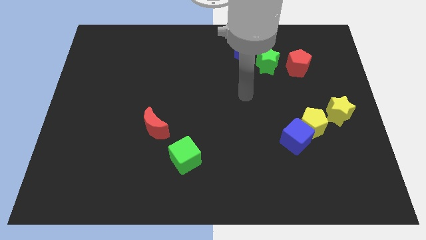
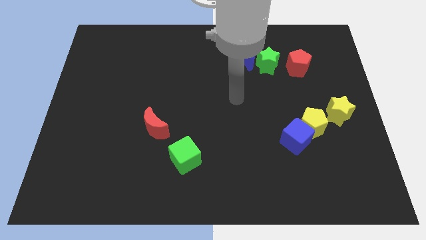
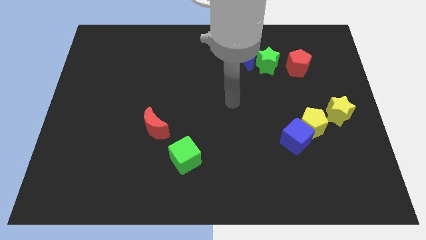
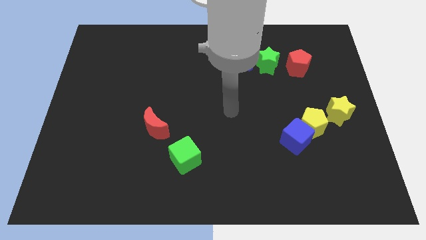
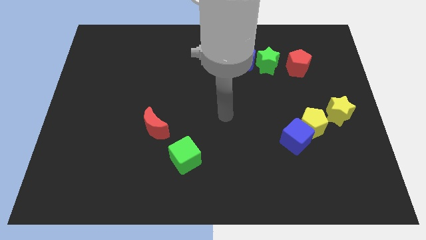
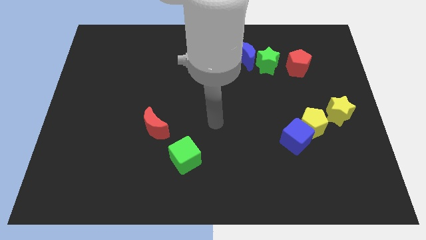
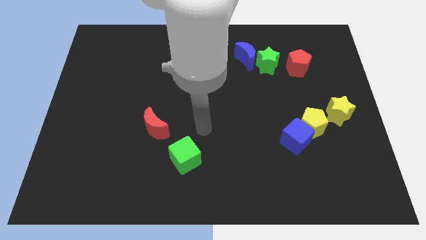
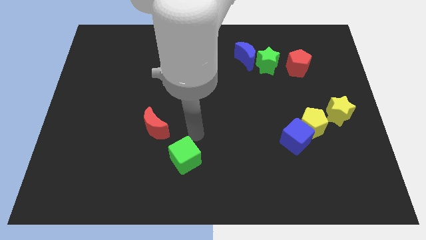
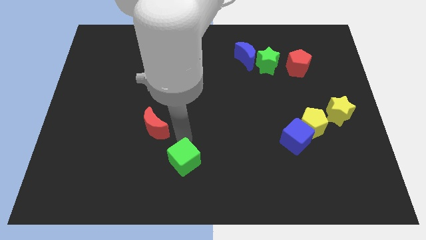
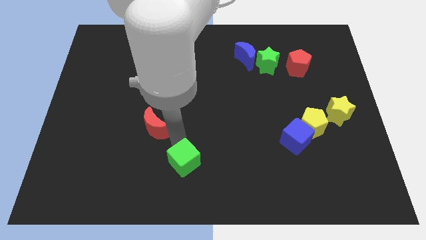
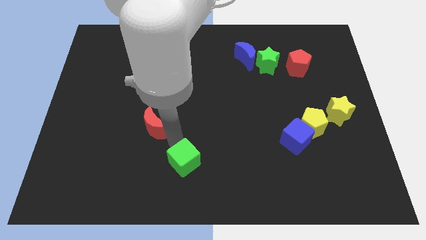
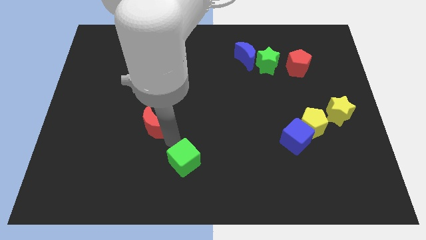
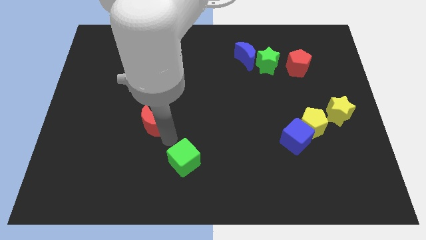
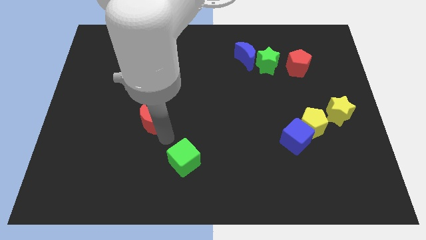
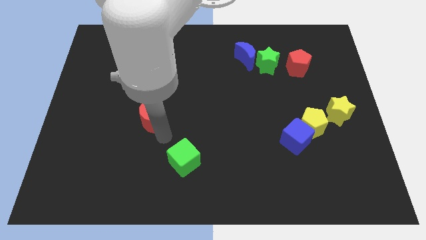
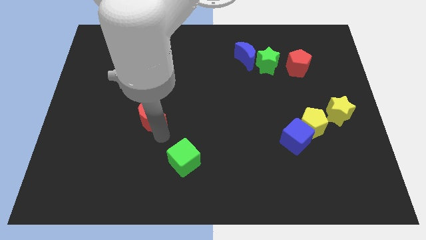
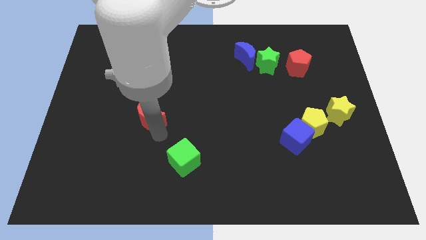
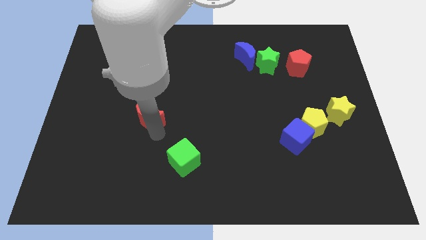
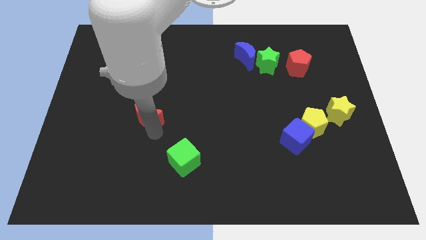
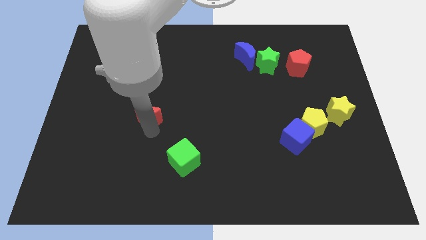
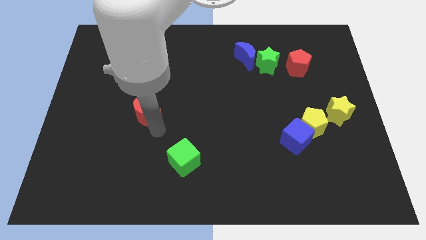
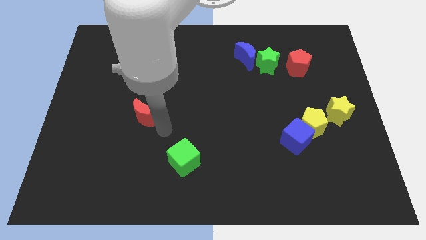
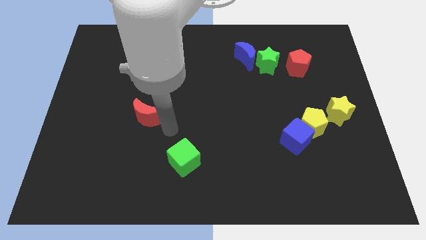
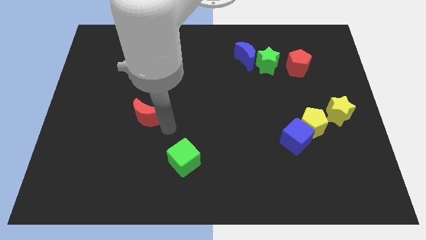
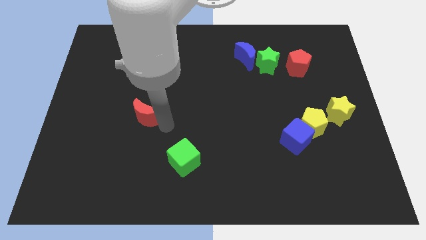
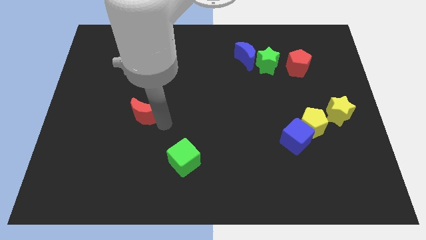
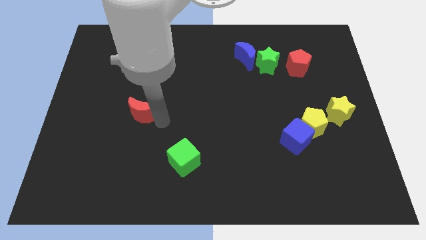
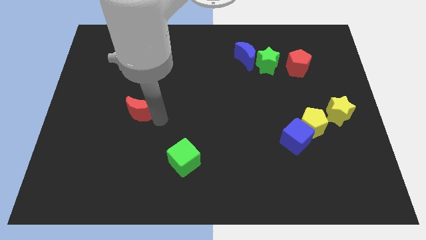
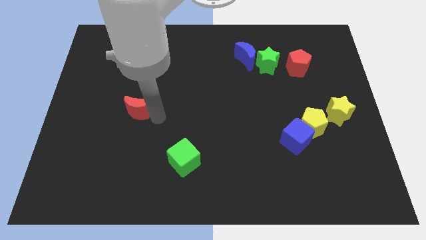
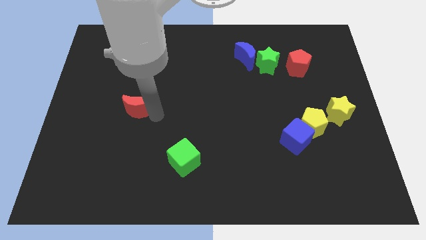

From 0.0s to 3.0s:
slightly push the red moon upwards and then left

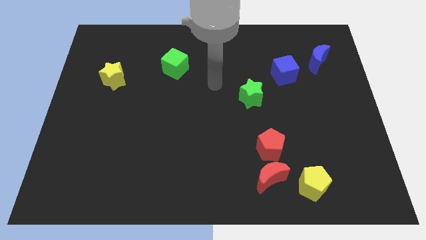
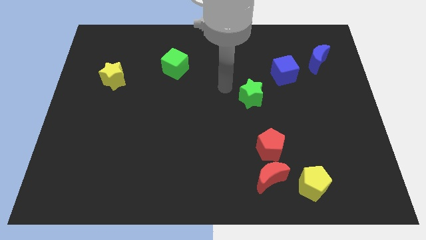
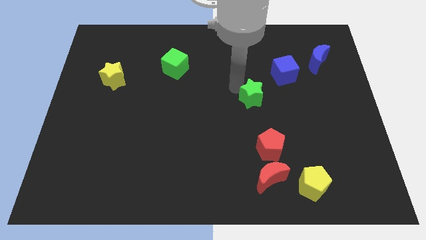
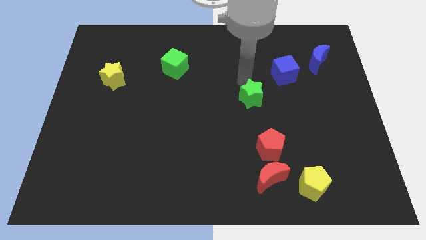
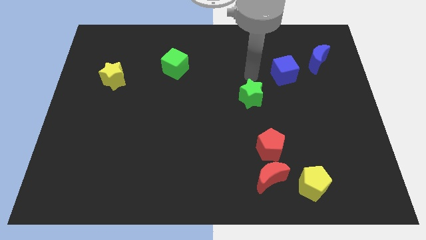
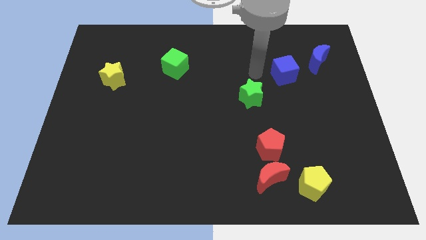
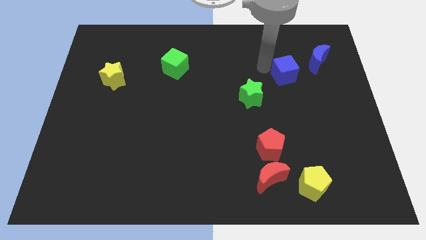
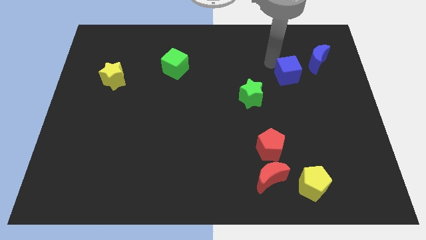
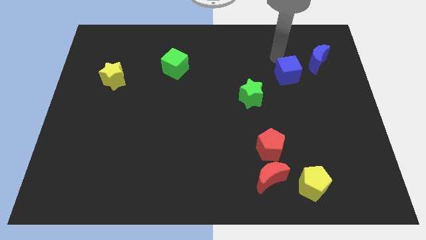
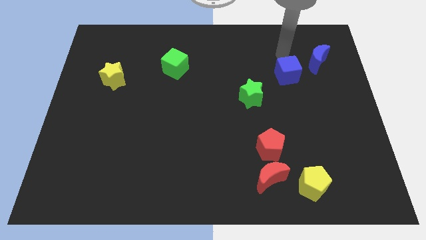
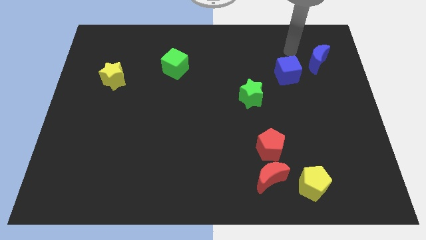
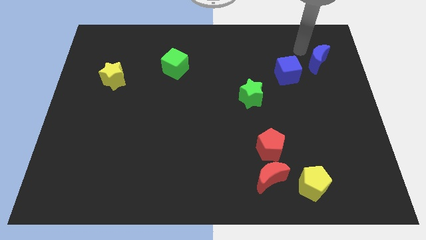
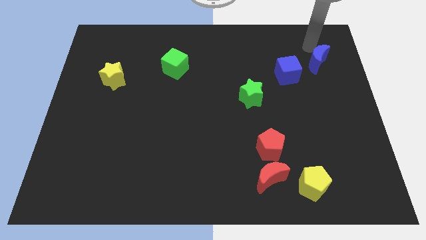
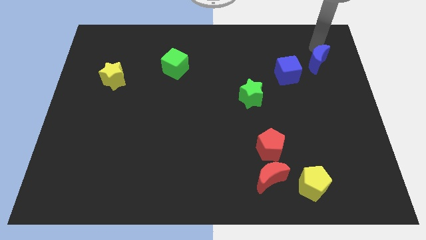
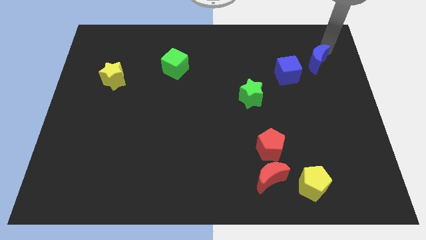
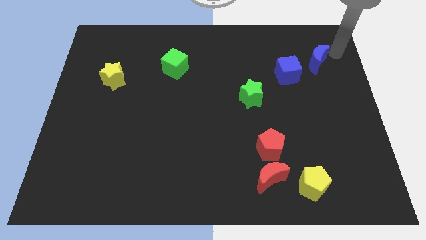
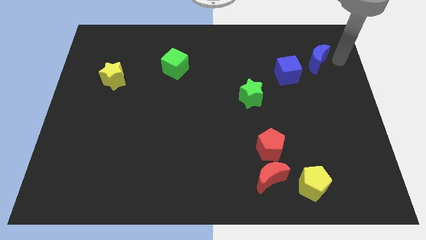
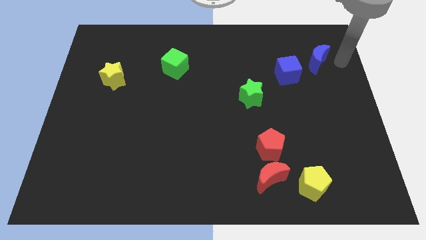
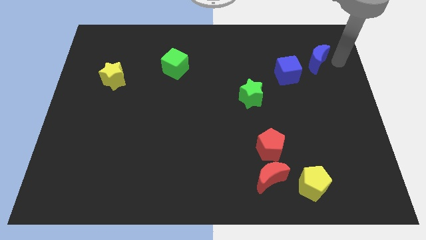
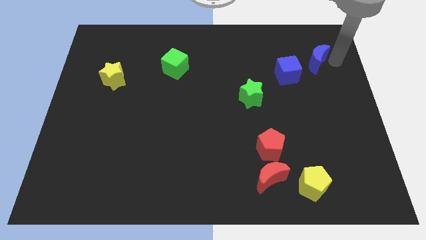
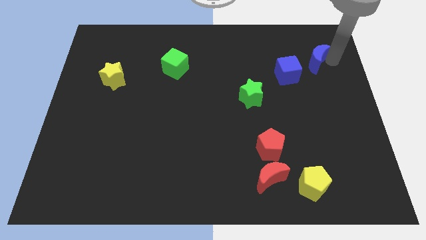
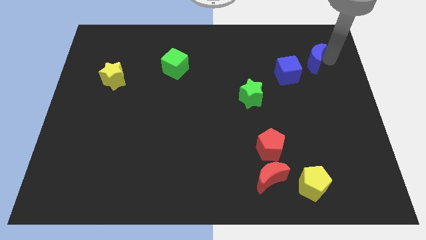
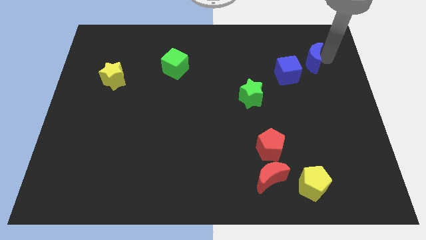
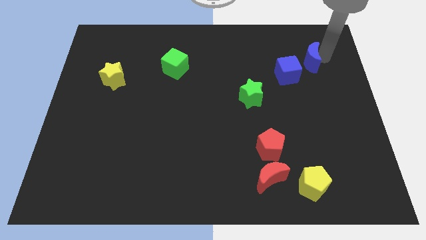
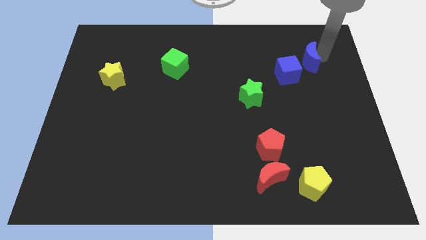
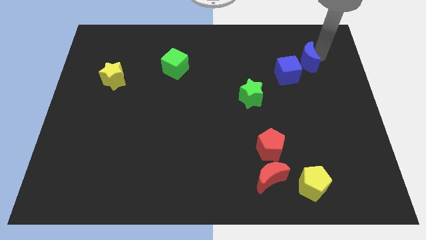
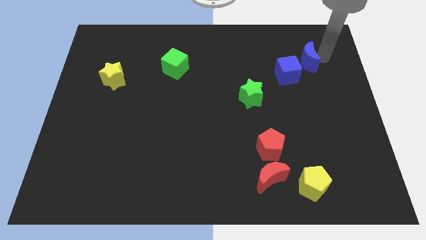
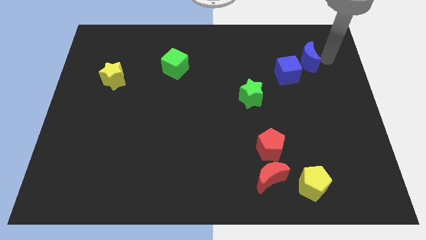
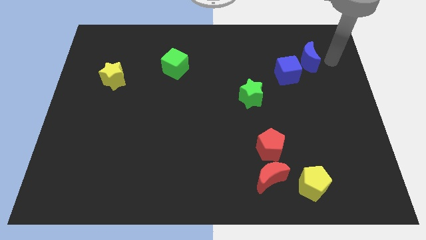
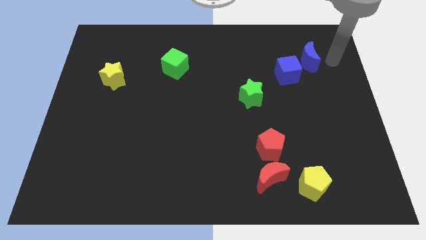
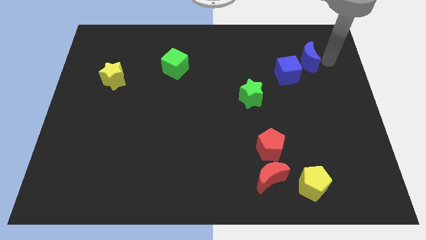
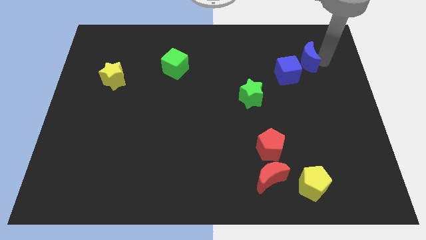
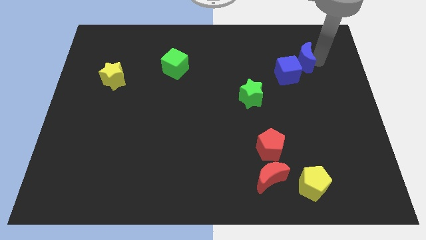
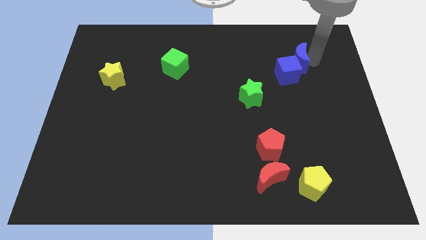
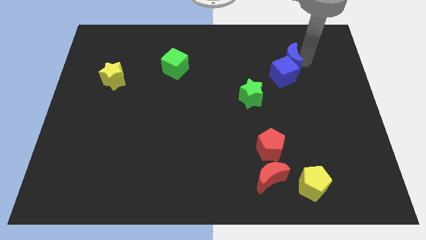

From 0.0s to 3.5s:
move the blue moon left slightly

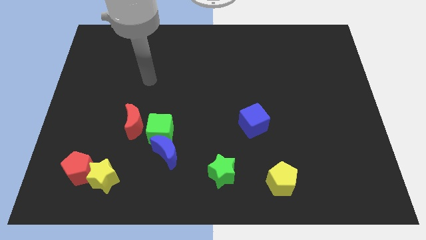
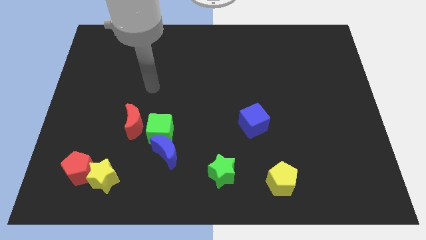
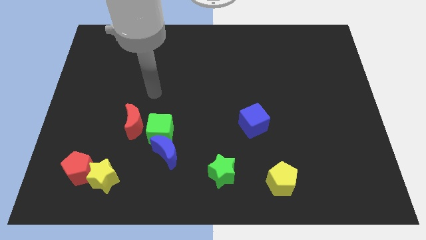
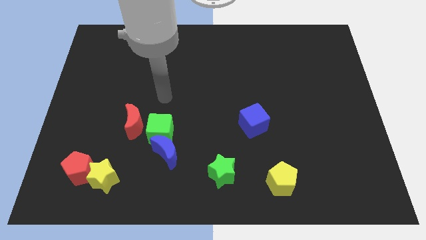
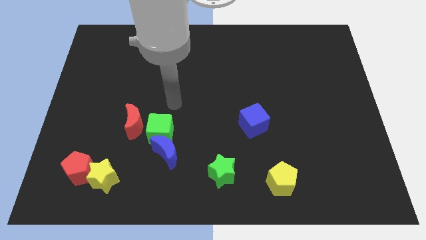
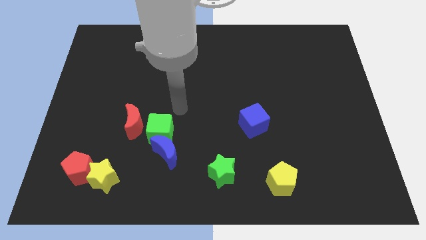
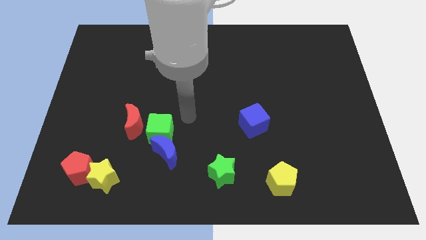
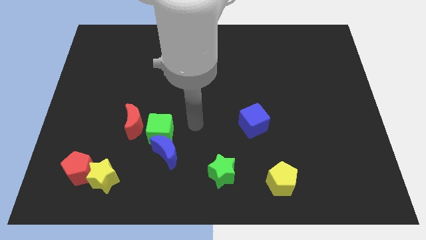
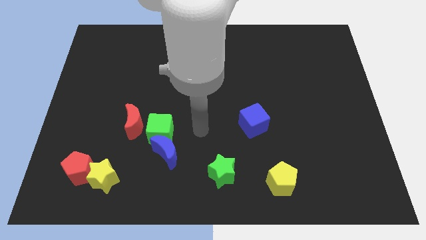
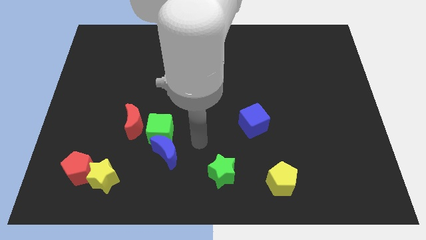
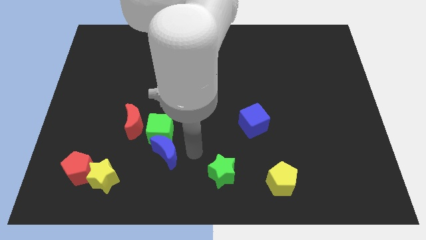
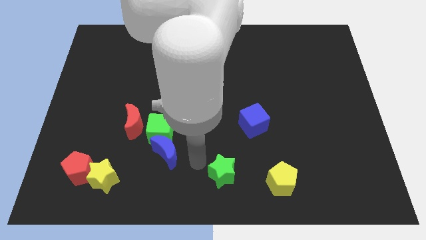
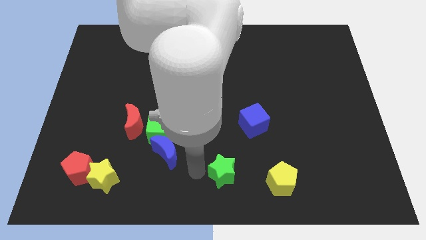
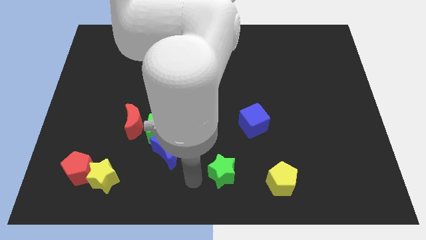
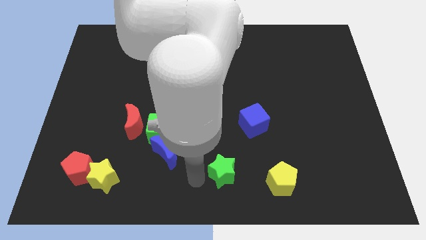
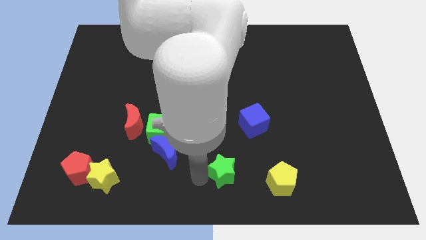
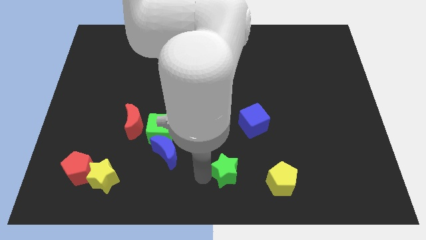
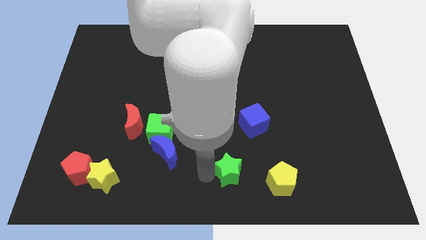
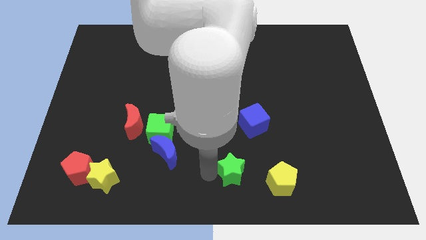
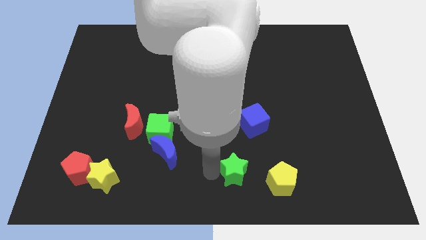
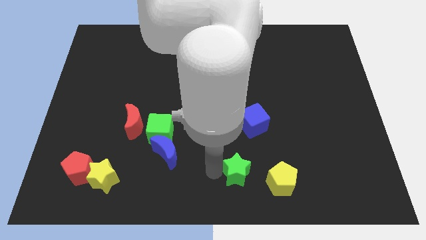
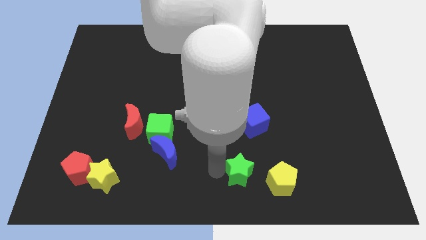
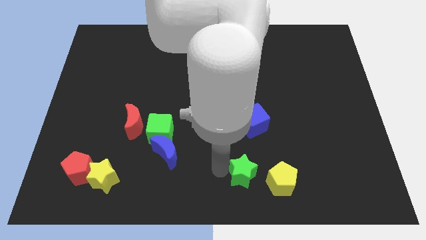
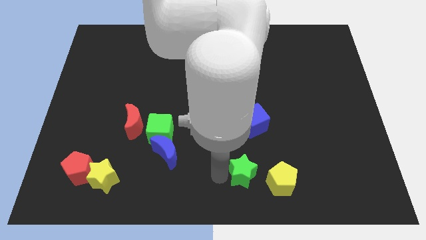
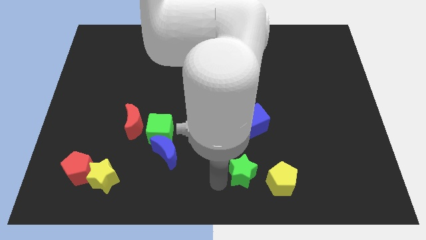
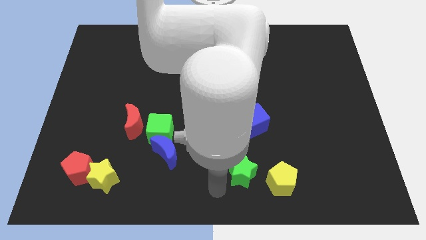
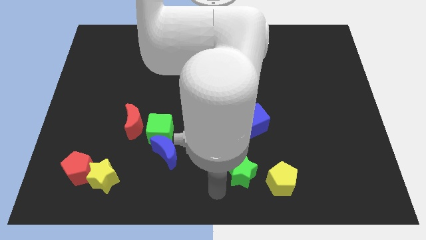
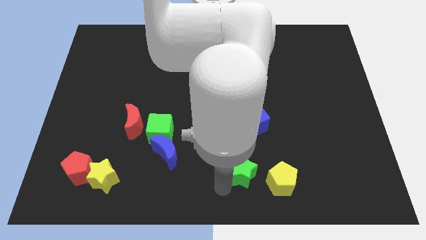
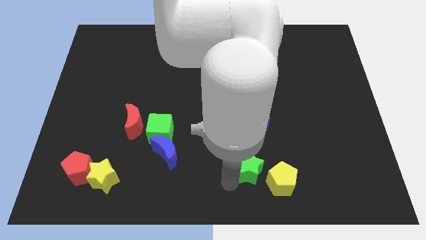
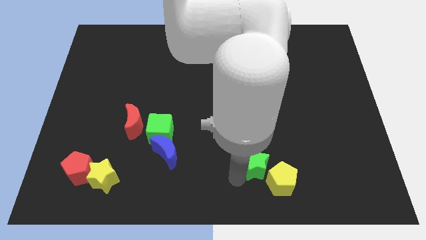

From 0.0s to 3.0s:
move the green star right a little
